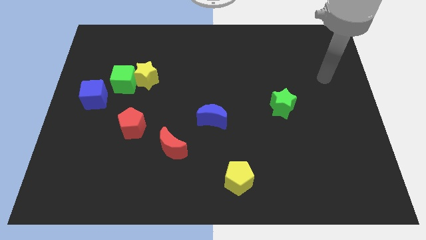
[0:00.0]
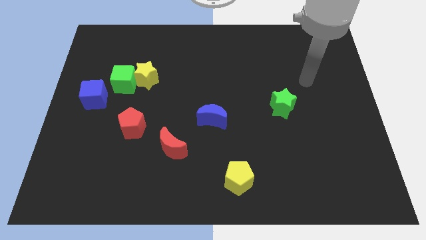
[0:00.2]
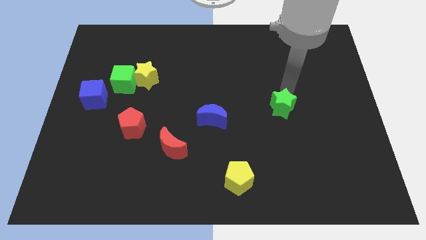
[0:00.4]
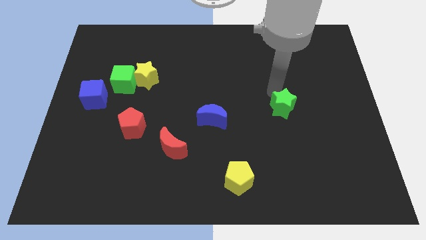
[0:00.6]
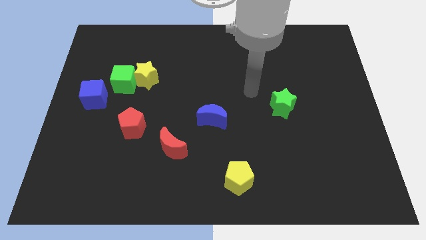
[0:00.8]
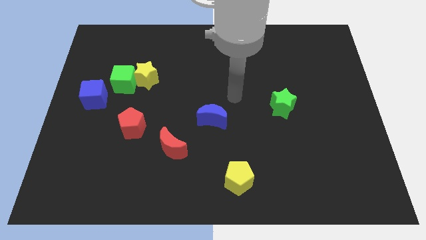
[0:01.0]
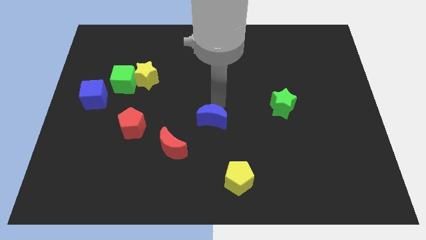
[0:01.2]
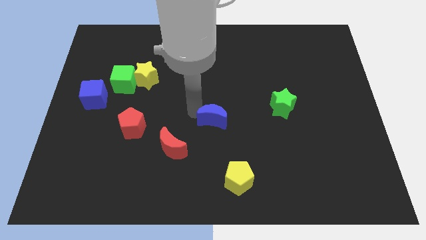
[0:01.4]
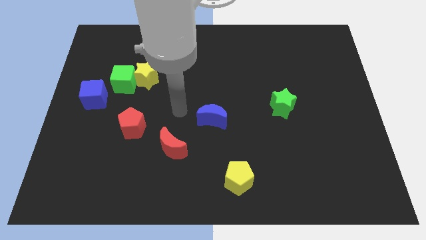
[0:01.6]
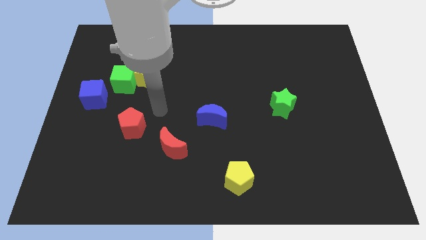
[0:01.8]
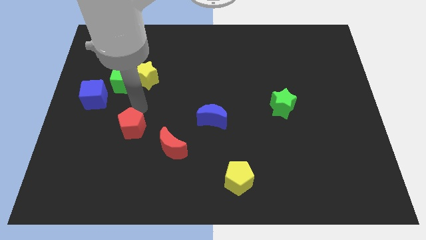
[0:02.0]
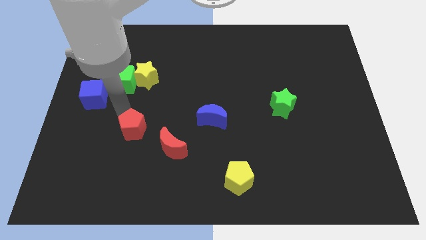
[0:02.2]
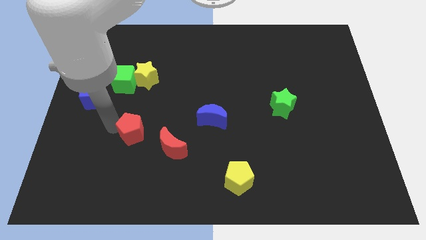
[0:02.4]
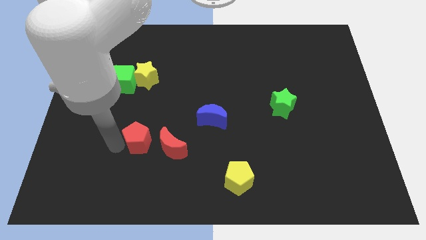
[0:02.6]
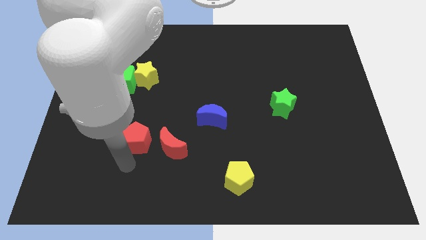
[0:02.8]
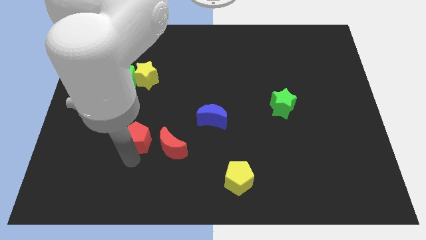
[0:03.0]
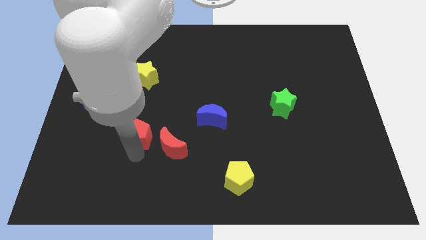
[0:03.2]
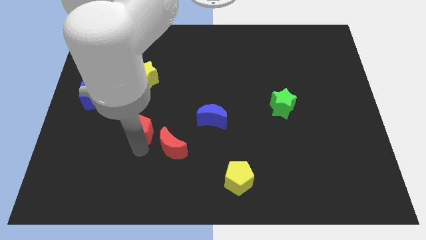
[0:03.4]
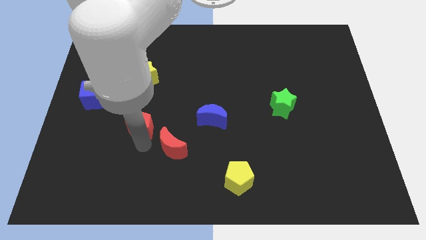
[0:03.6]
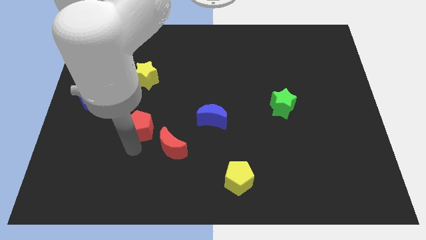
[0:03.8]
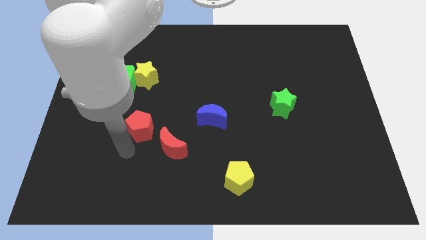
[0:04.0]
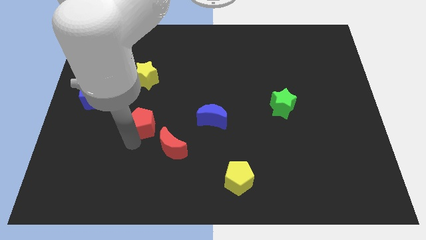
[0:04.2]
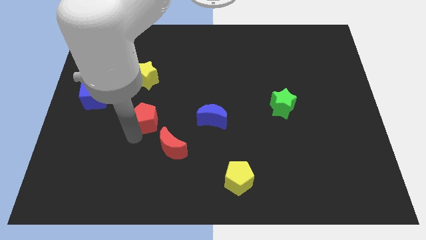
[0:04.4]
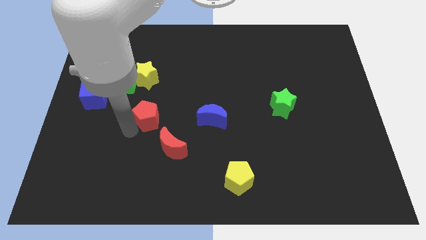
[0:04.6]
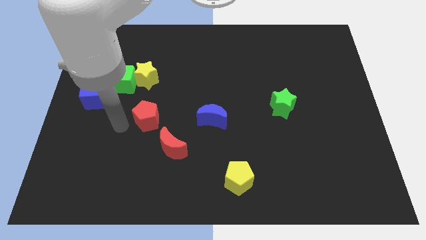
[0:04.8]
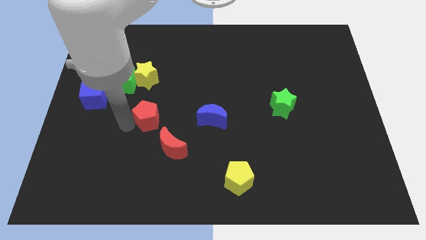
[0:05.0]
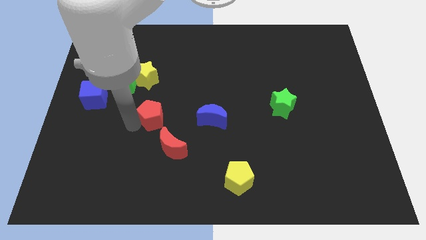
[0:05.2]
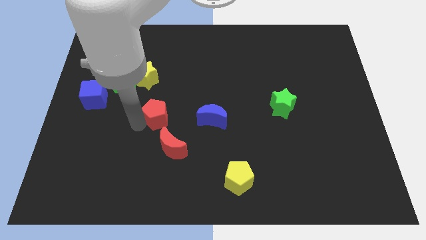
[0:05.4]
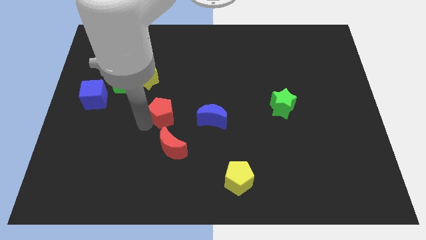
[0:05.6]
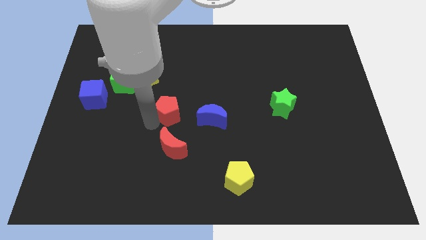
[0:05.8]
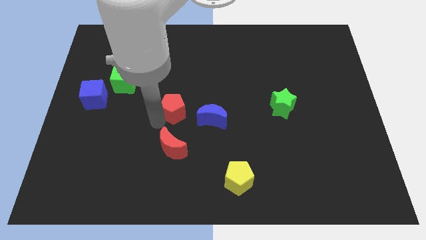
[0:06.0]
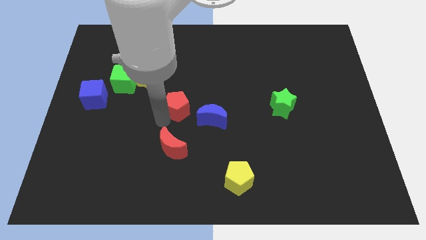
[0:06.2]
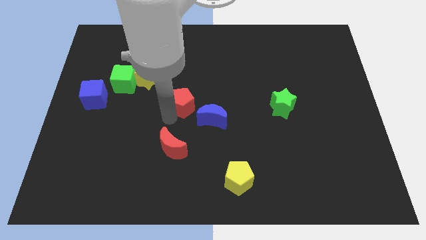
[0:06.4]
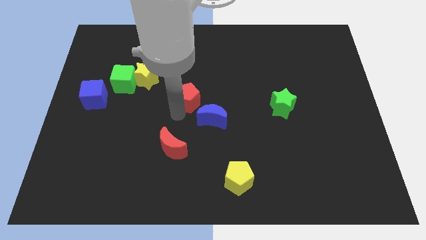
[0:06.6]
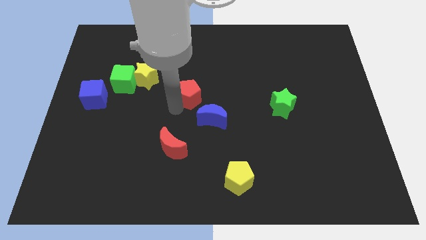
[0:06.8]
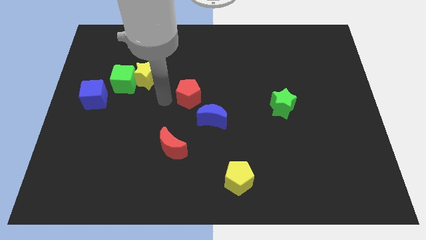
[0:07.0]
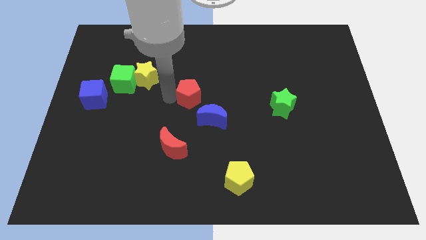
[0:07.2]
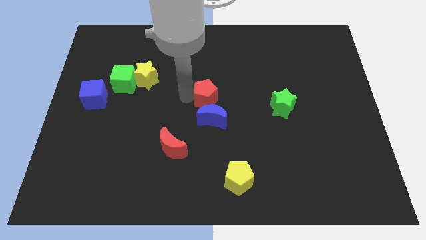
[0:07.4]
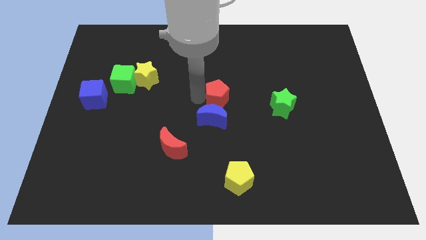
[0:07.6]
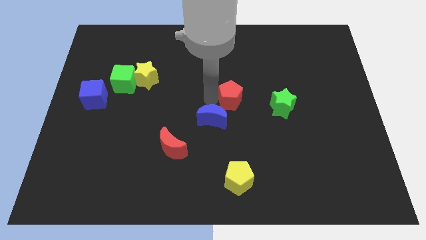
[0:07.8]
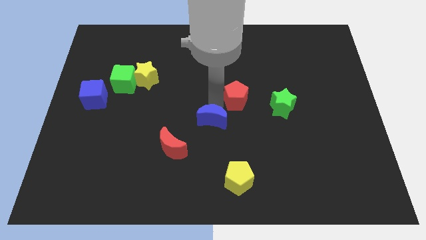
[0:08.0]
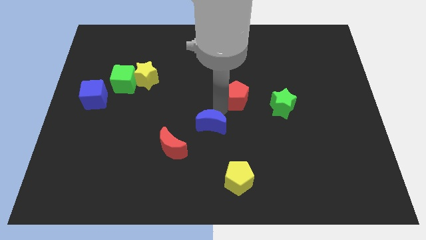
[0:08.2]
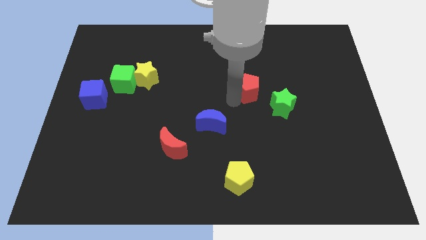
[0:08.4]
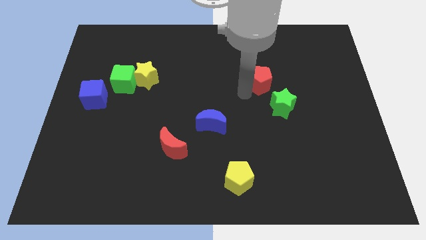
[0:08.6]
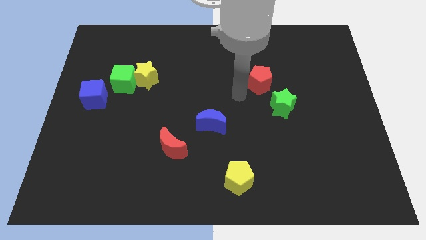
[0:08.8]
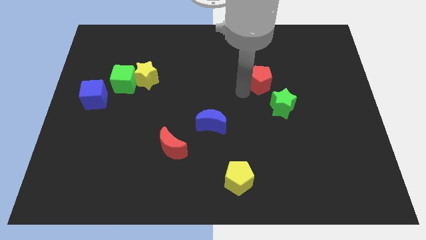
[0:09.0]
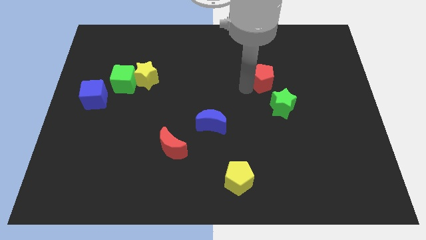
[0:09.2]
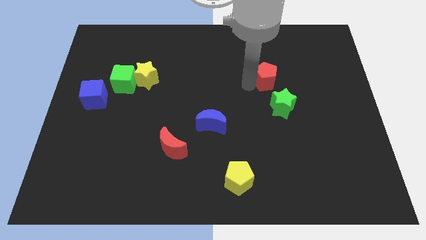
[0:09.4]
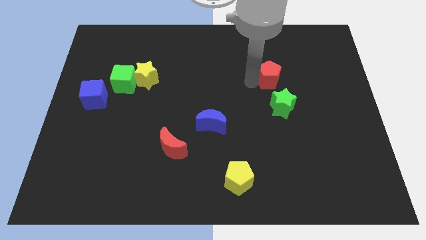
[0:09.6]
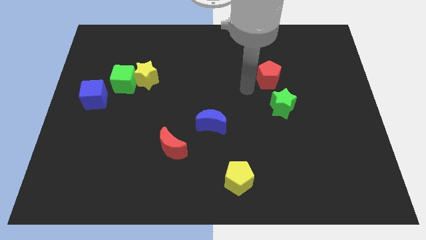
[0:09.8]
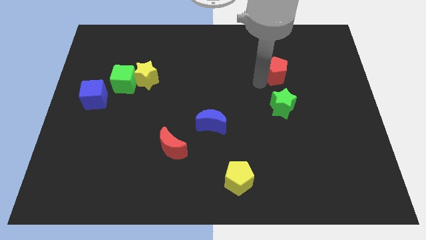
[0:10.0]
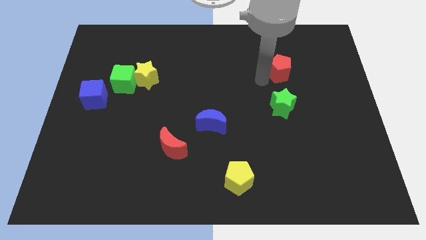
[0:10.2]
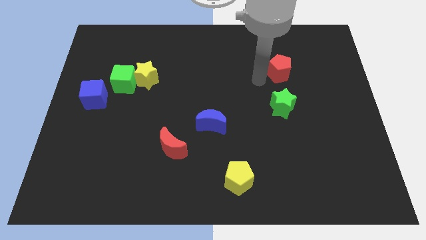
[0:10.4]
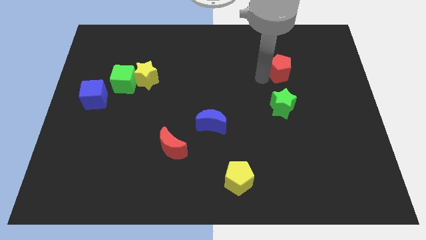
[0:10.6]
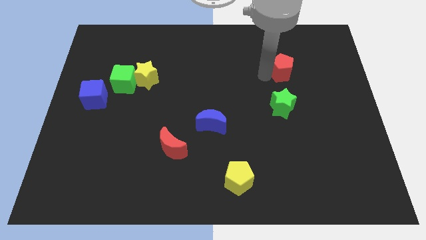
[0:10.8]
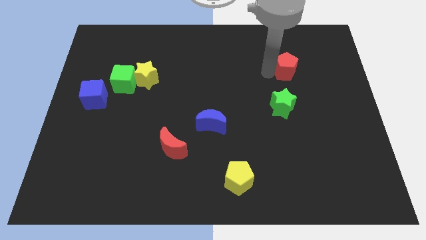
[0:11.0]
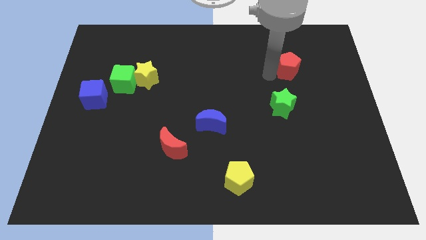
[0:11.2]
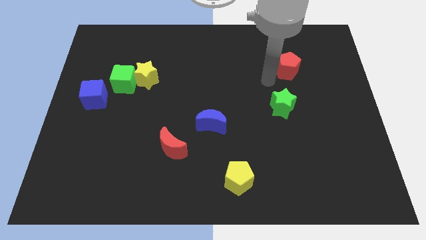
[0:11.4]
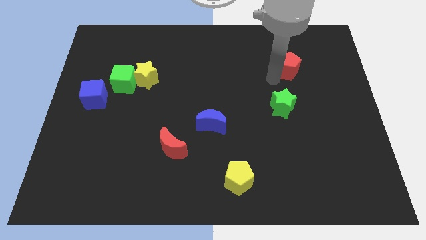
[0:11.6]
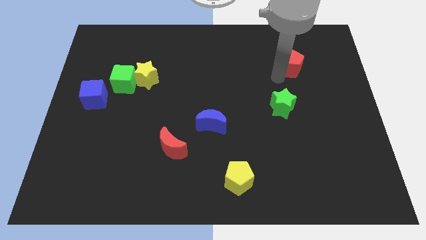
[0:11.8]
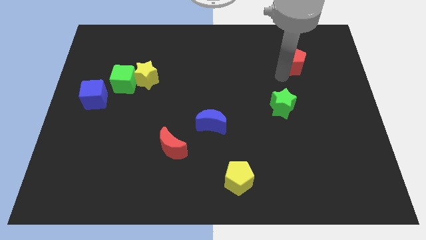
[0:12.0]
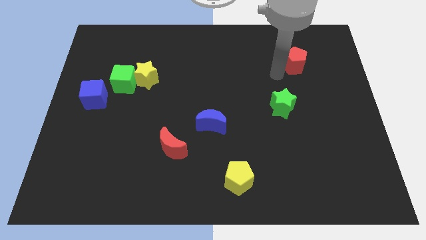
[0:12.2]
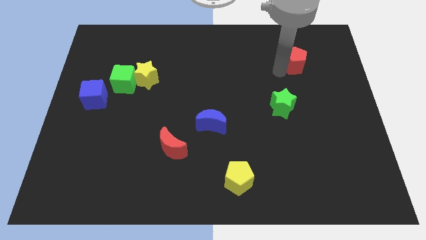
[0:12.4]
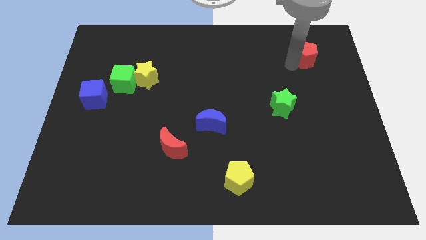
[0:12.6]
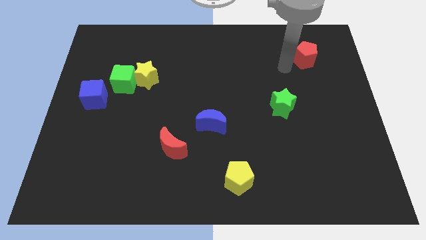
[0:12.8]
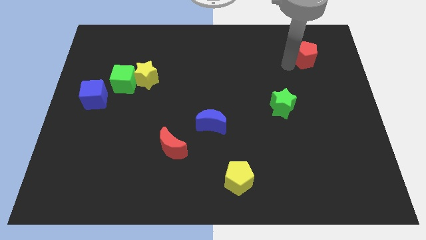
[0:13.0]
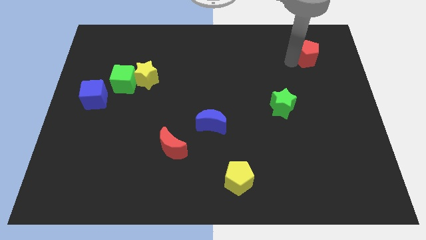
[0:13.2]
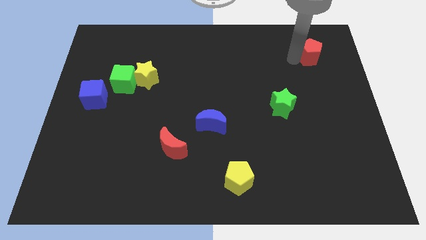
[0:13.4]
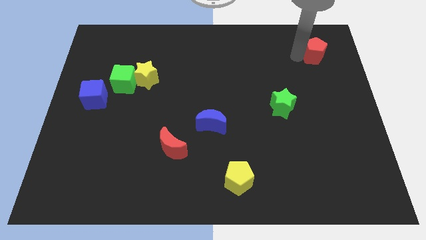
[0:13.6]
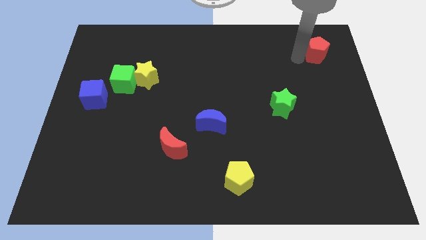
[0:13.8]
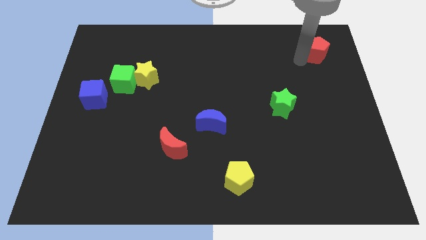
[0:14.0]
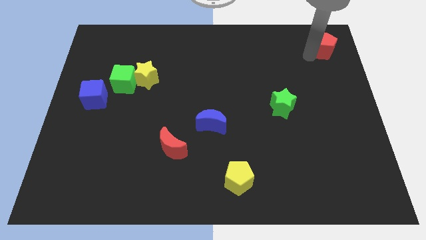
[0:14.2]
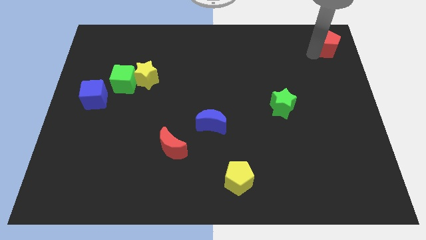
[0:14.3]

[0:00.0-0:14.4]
push the red pentagon to the top right corner
